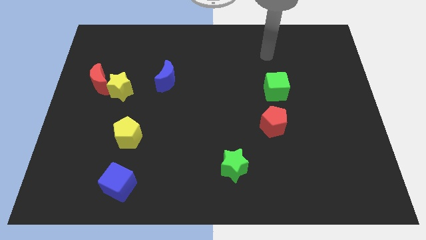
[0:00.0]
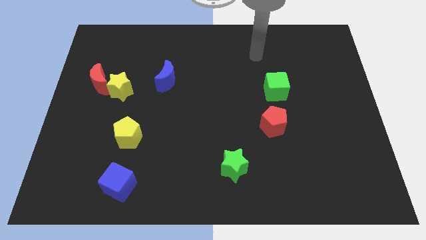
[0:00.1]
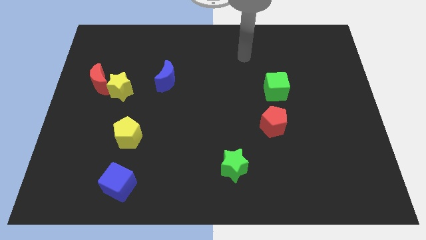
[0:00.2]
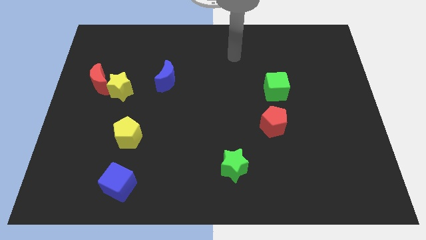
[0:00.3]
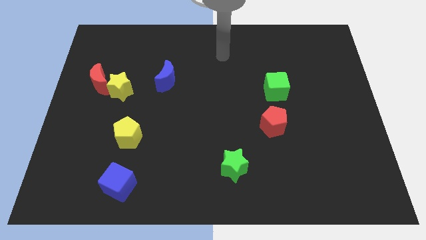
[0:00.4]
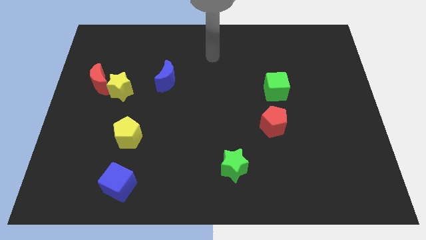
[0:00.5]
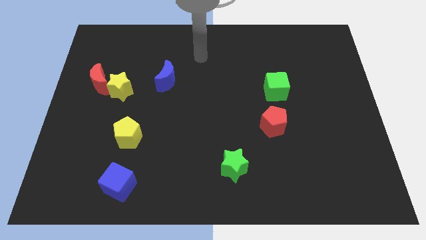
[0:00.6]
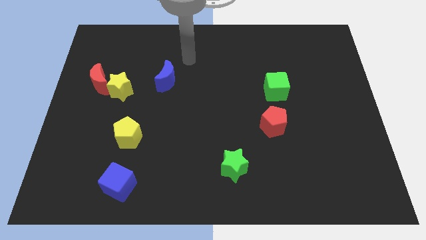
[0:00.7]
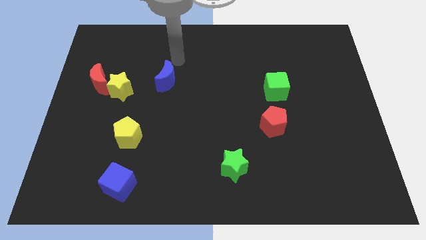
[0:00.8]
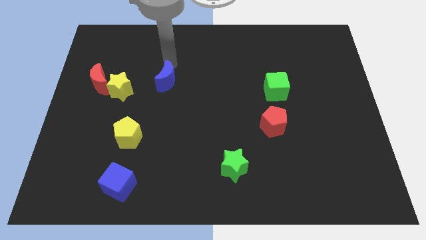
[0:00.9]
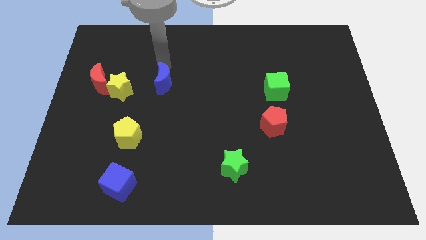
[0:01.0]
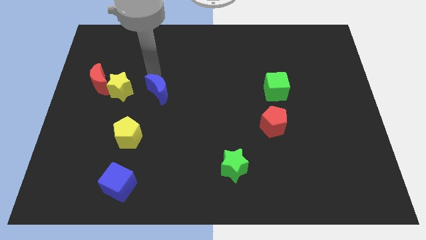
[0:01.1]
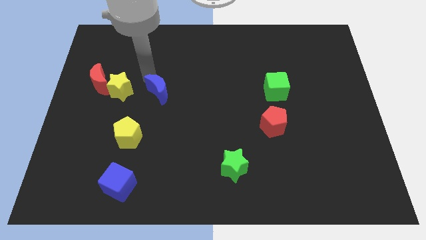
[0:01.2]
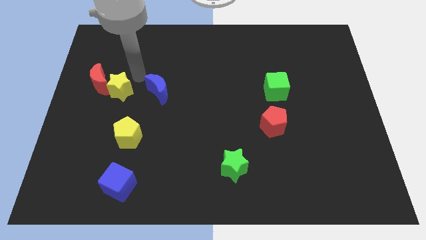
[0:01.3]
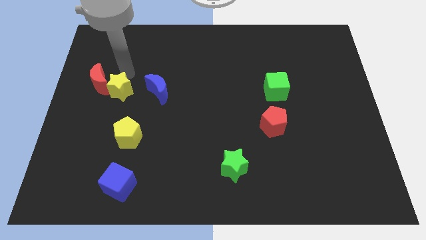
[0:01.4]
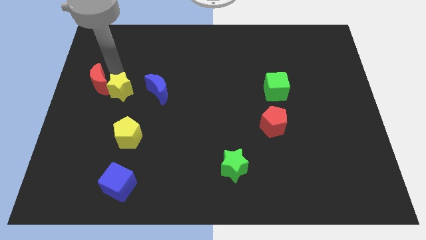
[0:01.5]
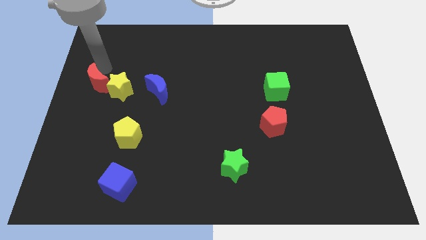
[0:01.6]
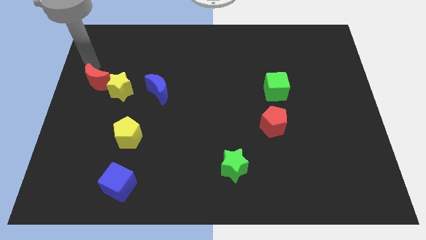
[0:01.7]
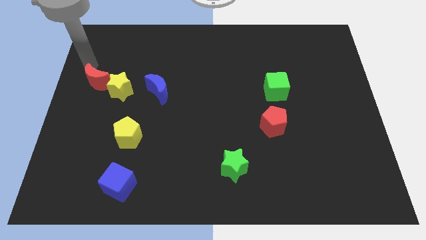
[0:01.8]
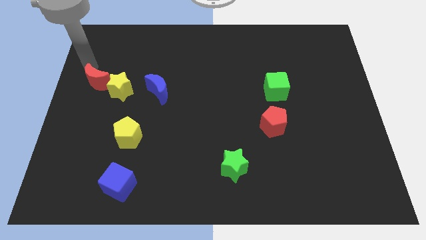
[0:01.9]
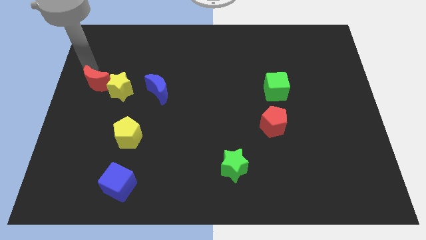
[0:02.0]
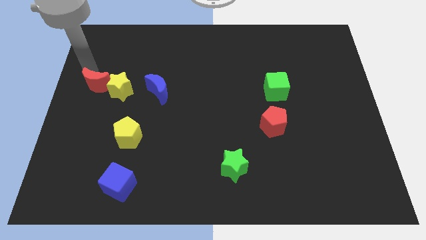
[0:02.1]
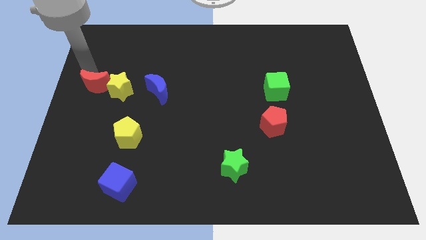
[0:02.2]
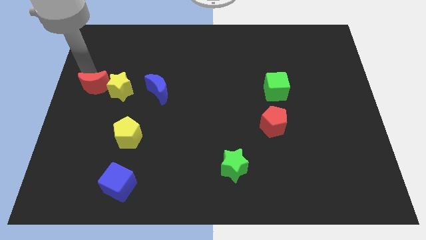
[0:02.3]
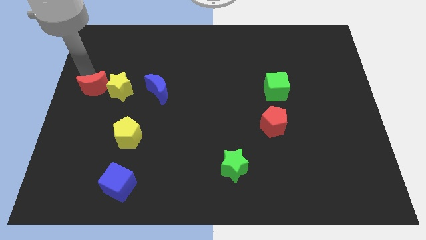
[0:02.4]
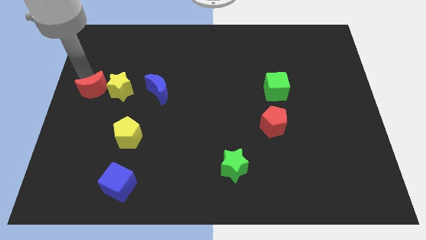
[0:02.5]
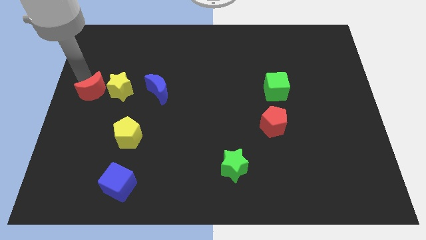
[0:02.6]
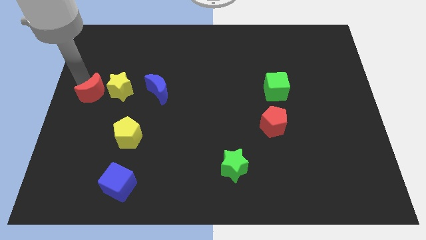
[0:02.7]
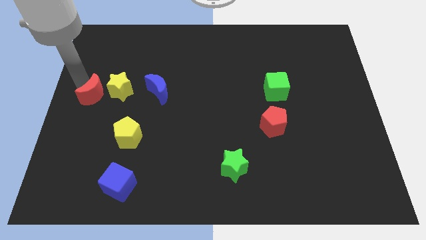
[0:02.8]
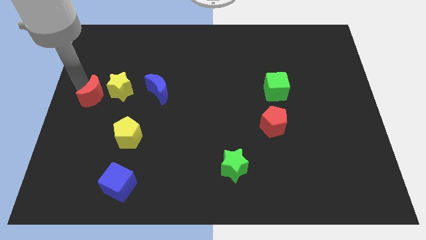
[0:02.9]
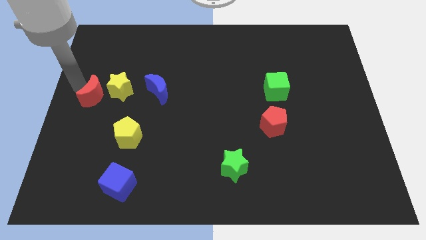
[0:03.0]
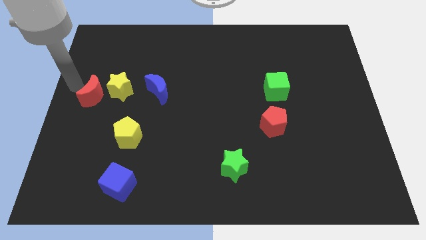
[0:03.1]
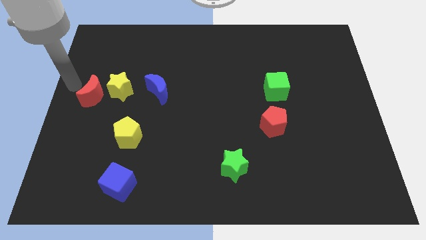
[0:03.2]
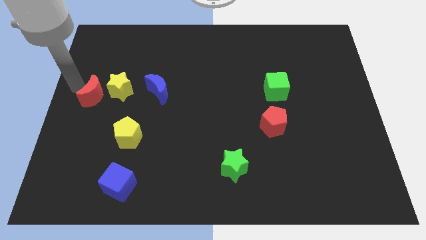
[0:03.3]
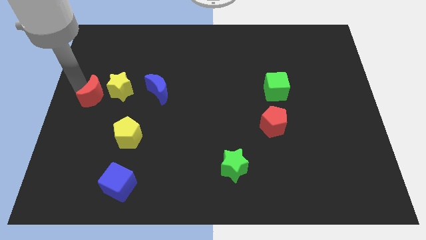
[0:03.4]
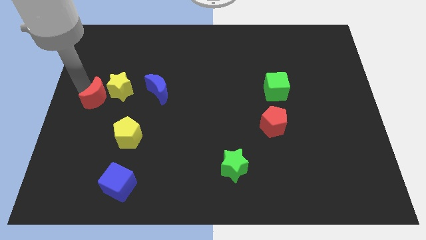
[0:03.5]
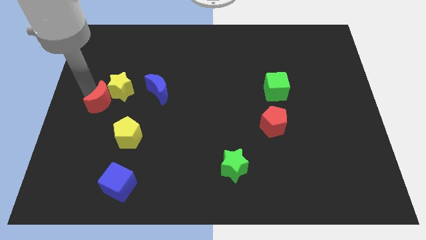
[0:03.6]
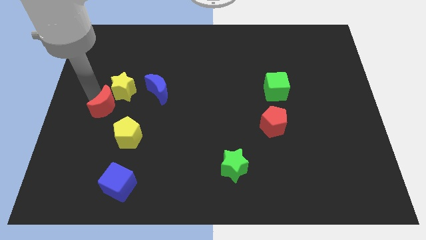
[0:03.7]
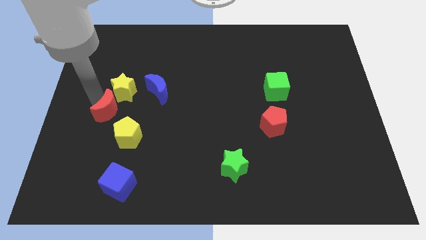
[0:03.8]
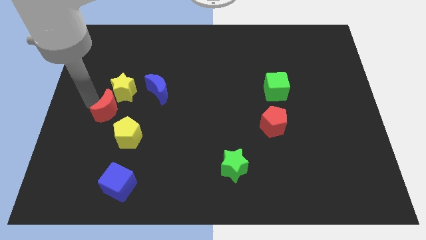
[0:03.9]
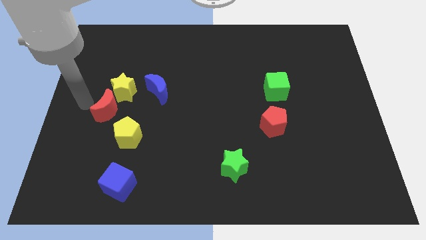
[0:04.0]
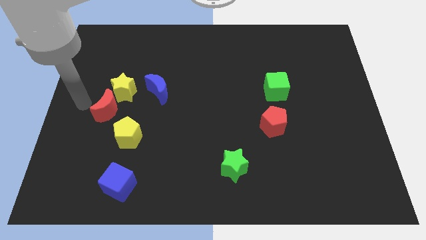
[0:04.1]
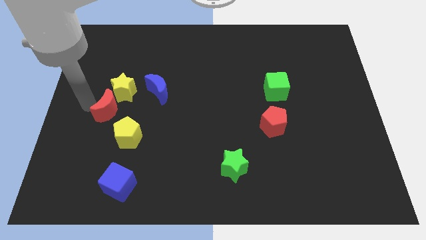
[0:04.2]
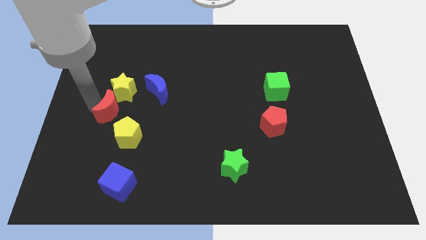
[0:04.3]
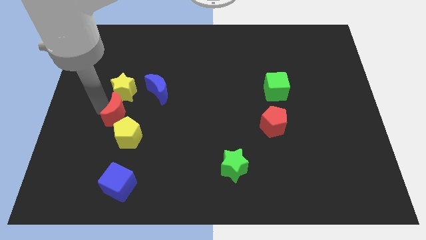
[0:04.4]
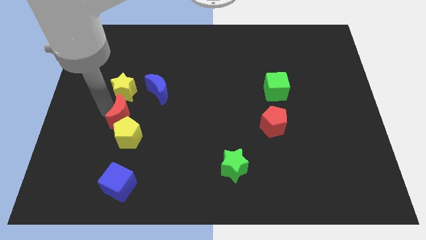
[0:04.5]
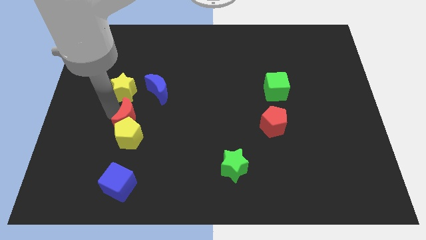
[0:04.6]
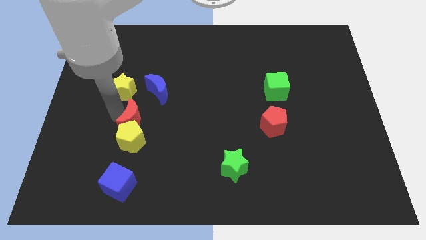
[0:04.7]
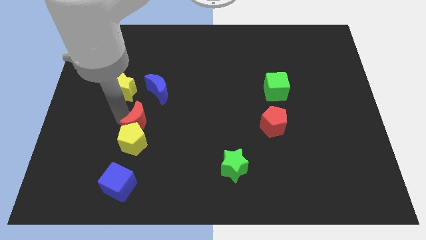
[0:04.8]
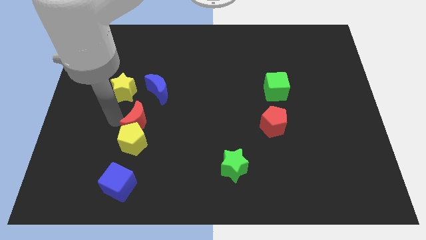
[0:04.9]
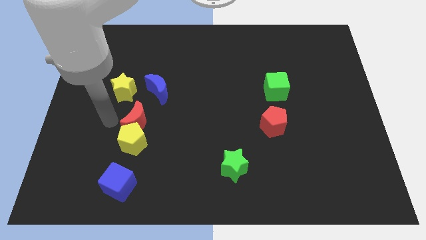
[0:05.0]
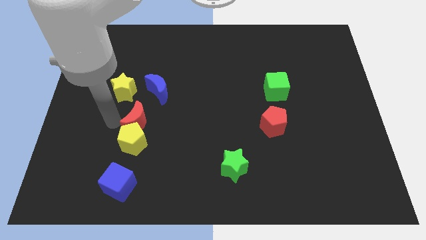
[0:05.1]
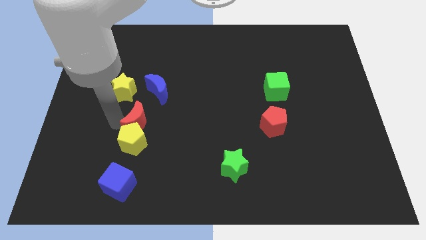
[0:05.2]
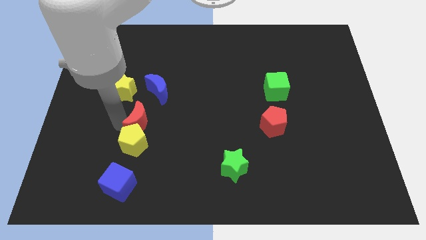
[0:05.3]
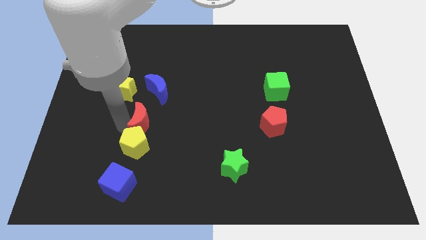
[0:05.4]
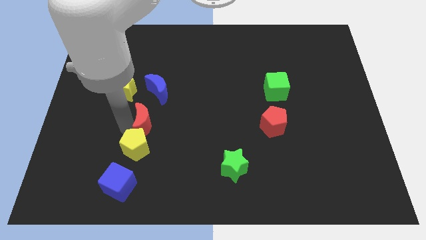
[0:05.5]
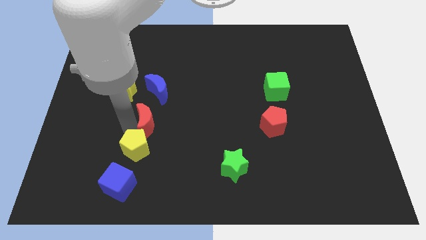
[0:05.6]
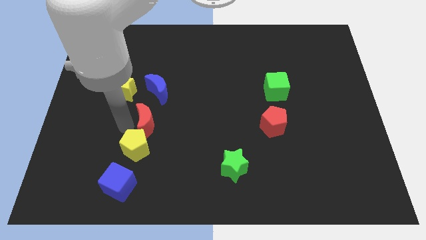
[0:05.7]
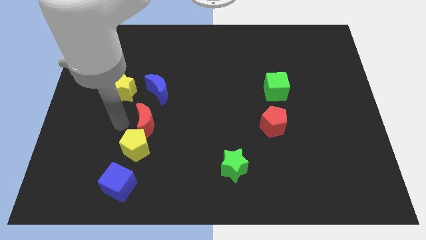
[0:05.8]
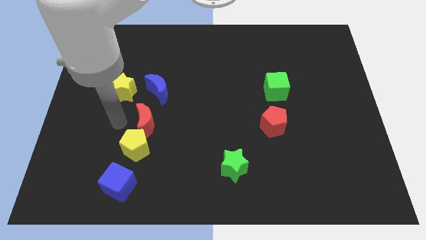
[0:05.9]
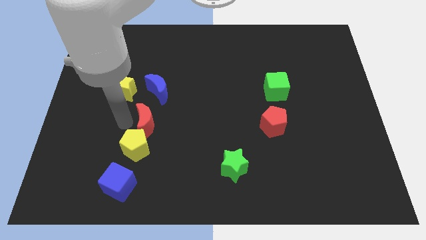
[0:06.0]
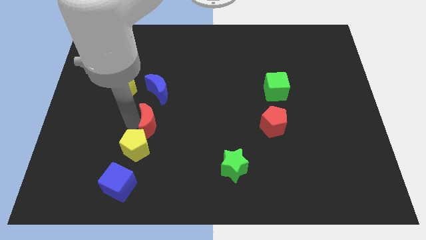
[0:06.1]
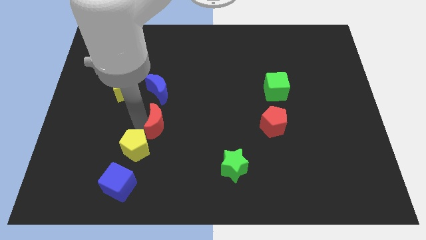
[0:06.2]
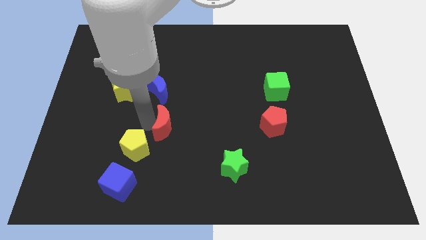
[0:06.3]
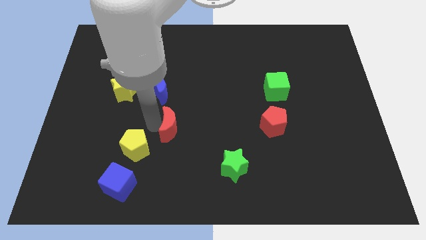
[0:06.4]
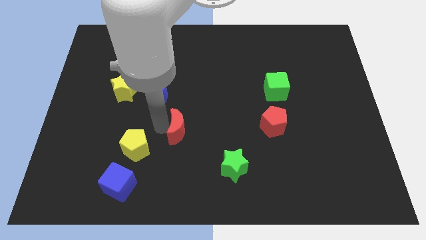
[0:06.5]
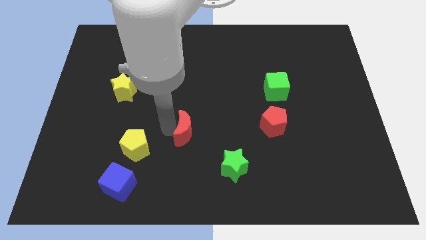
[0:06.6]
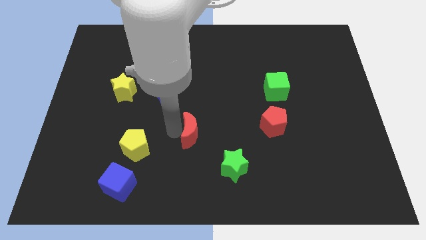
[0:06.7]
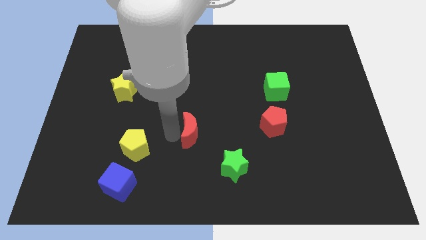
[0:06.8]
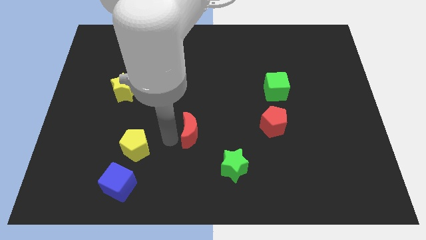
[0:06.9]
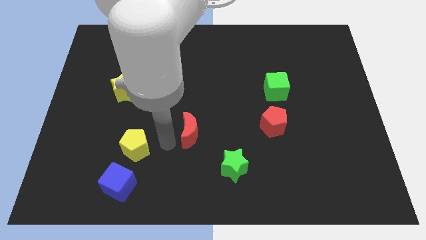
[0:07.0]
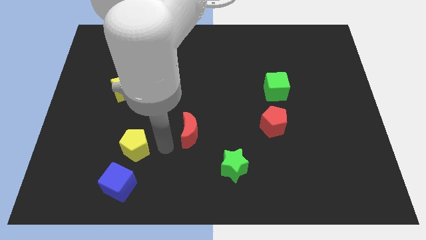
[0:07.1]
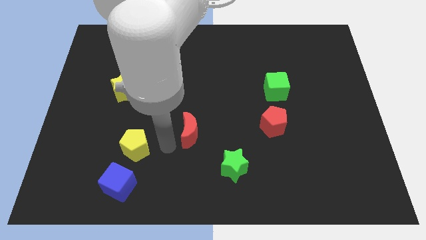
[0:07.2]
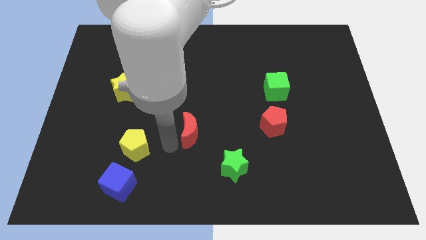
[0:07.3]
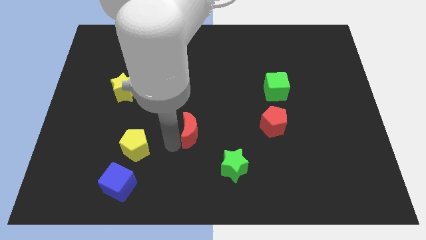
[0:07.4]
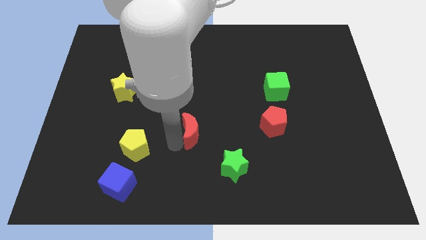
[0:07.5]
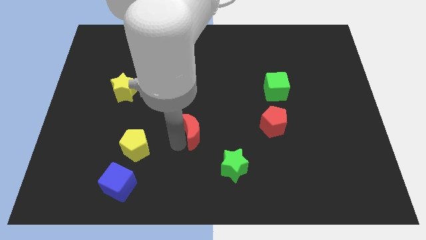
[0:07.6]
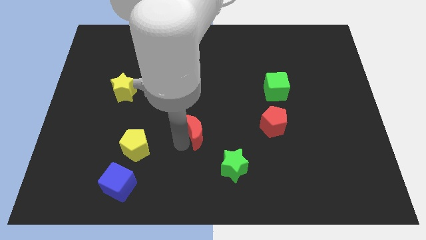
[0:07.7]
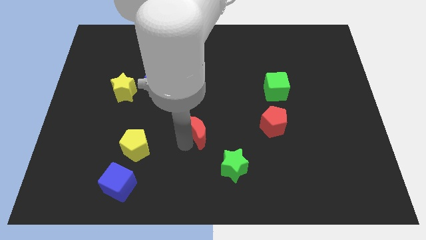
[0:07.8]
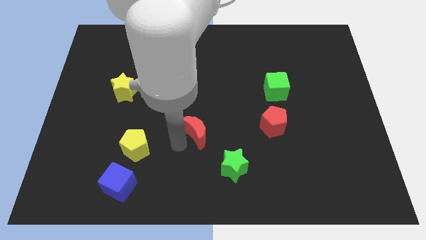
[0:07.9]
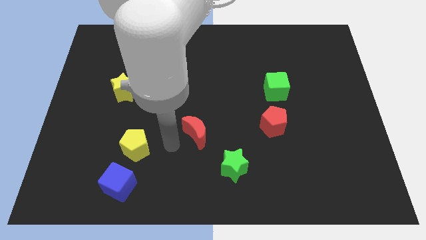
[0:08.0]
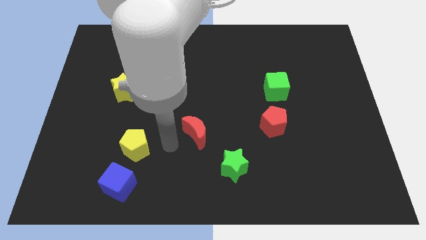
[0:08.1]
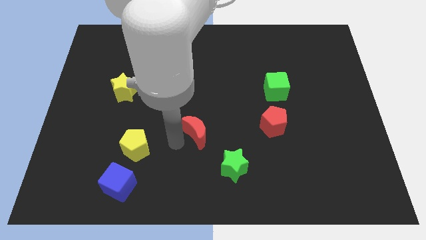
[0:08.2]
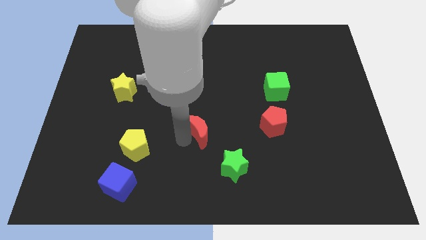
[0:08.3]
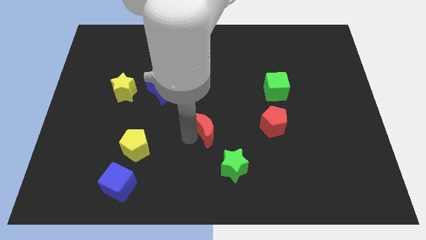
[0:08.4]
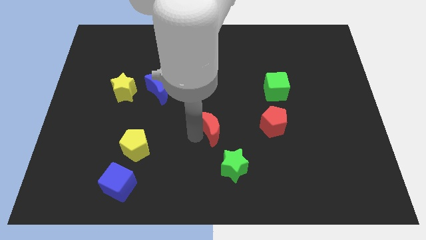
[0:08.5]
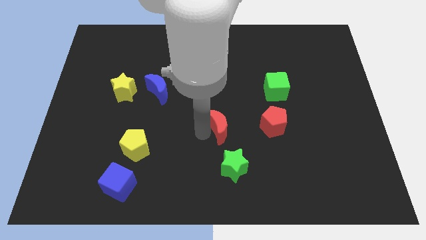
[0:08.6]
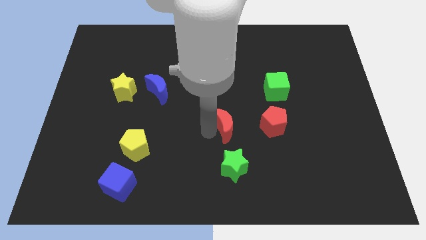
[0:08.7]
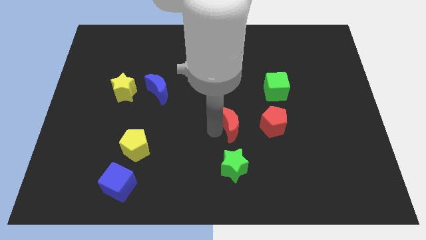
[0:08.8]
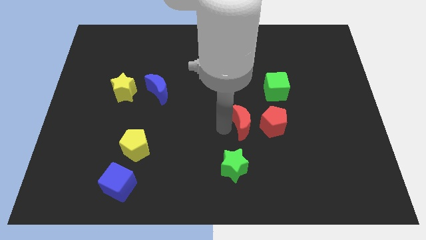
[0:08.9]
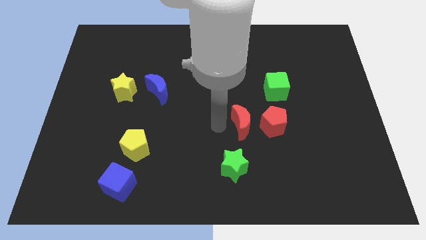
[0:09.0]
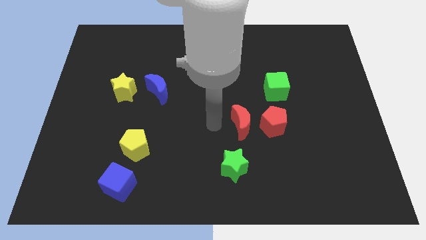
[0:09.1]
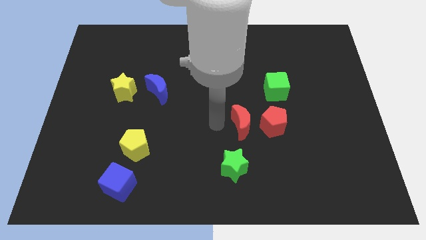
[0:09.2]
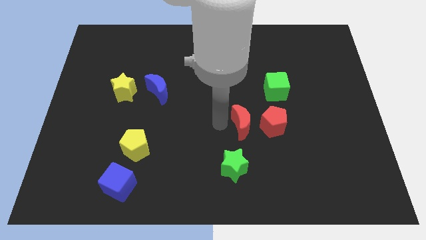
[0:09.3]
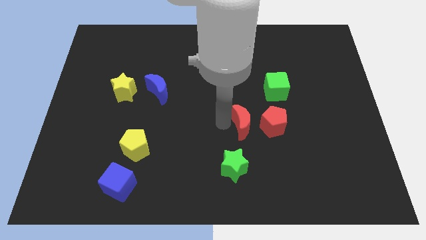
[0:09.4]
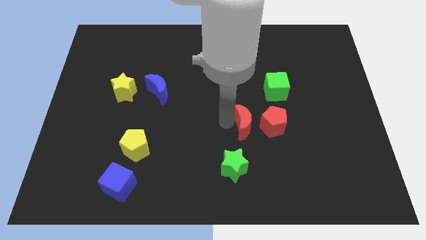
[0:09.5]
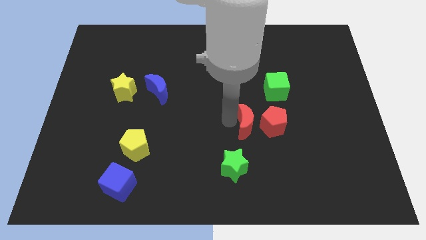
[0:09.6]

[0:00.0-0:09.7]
slide the red moon next to the red pentagon
